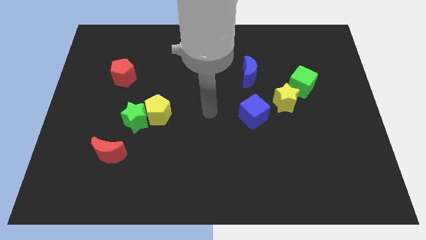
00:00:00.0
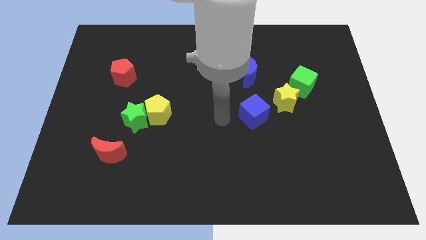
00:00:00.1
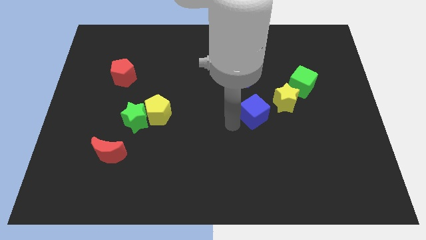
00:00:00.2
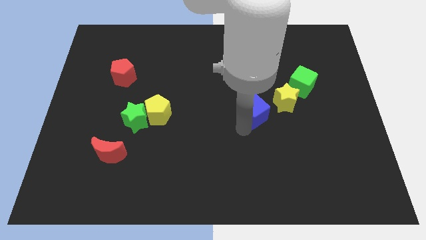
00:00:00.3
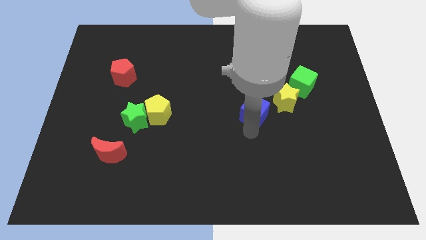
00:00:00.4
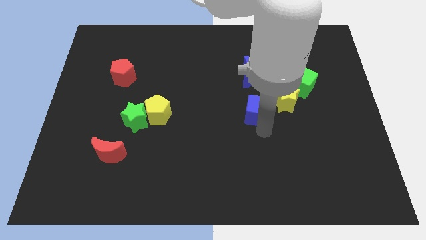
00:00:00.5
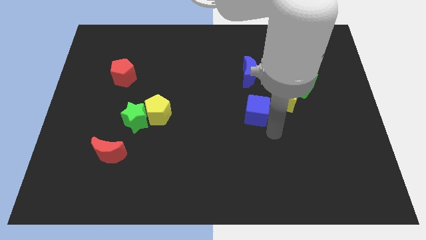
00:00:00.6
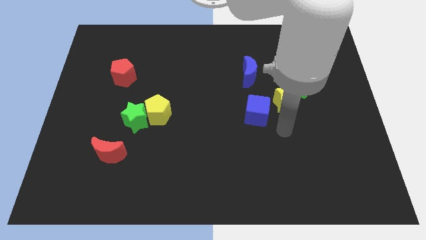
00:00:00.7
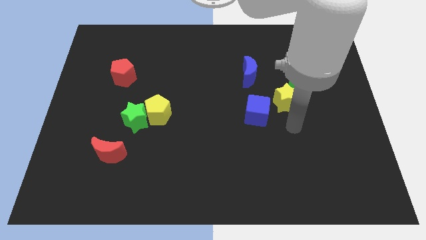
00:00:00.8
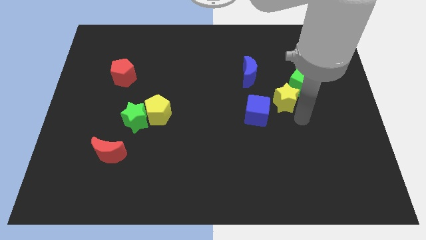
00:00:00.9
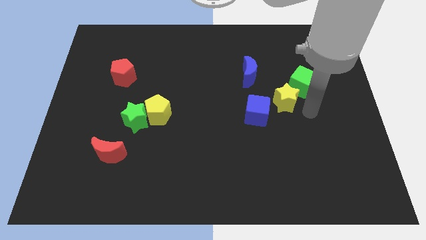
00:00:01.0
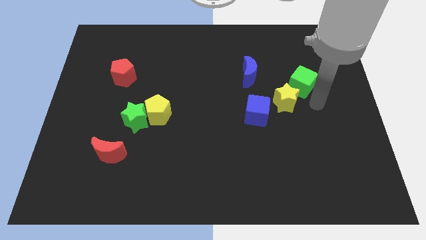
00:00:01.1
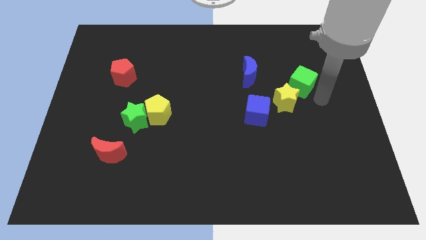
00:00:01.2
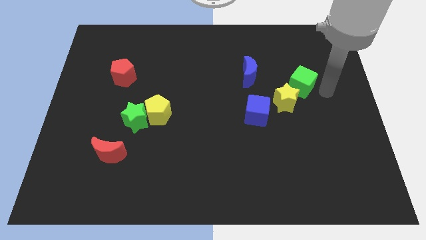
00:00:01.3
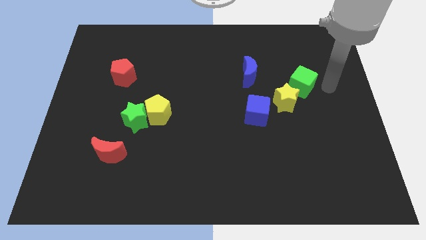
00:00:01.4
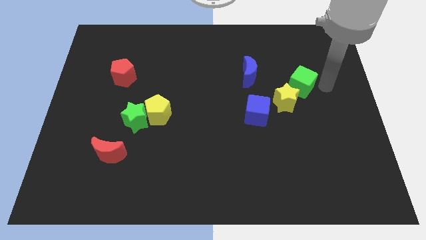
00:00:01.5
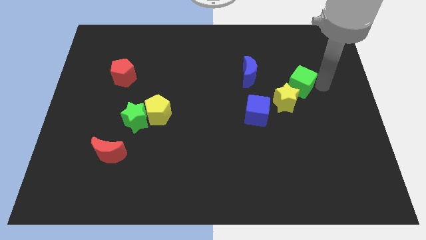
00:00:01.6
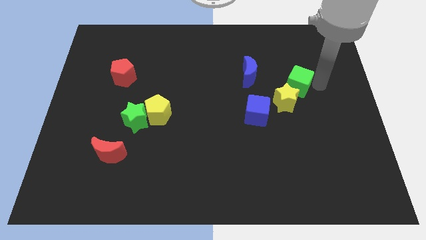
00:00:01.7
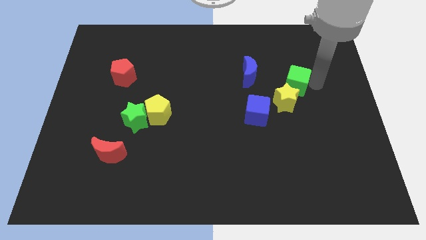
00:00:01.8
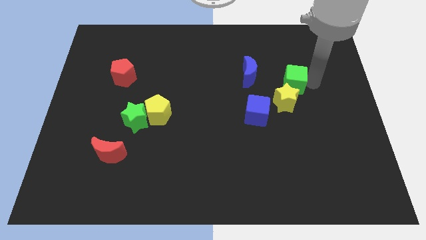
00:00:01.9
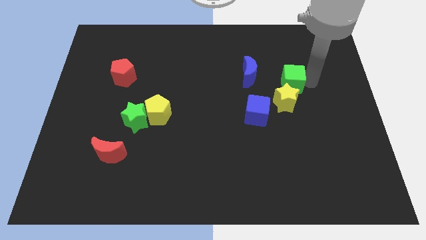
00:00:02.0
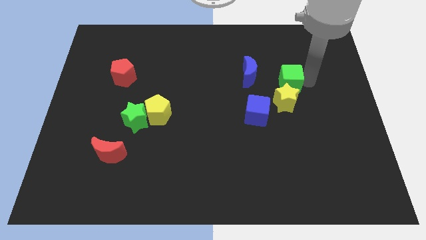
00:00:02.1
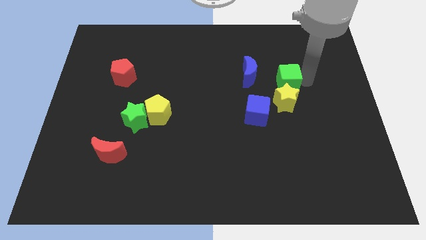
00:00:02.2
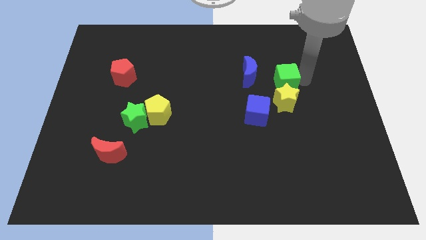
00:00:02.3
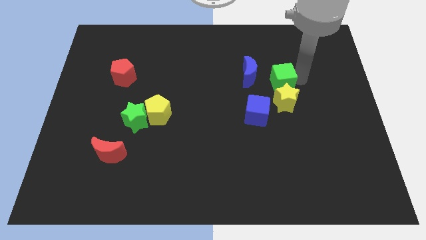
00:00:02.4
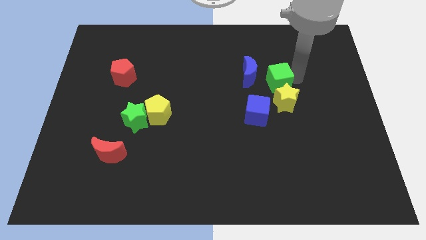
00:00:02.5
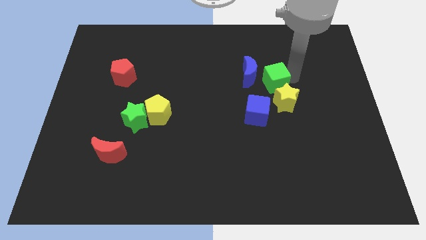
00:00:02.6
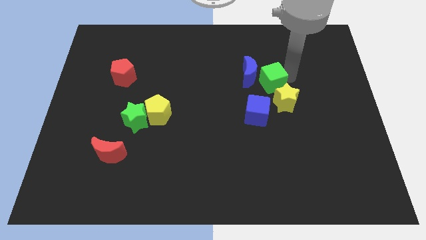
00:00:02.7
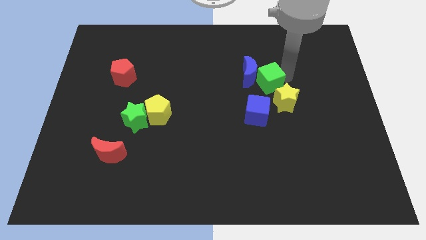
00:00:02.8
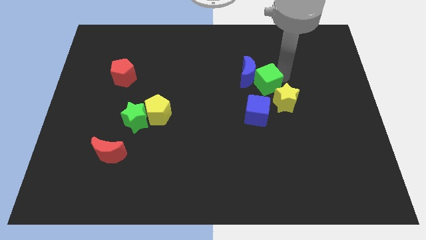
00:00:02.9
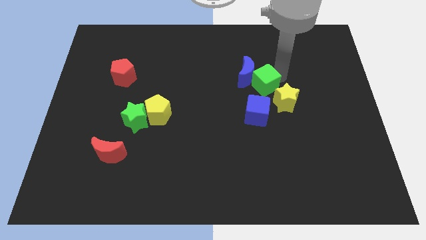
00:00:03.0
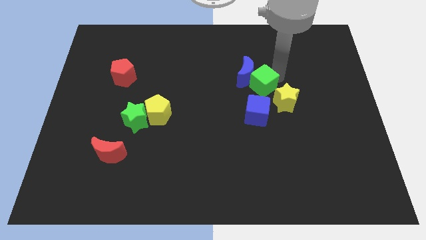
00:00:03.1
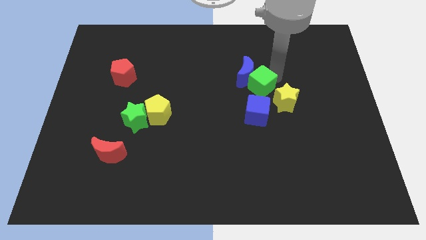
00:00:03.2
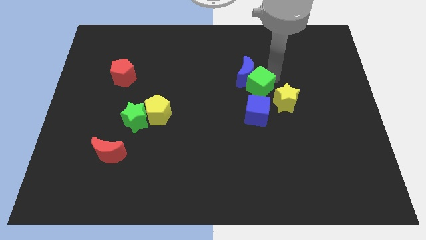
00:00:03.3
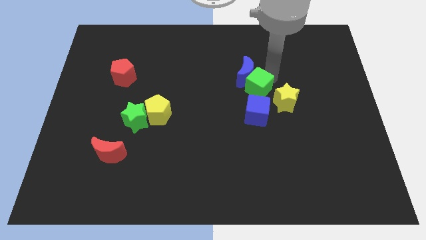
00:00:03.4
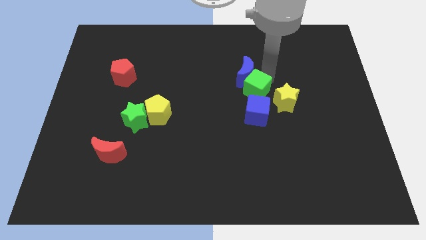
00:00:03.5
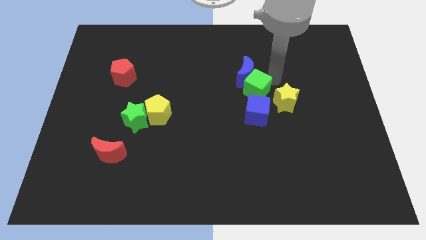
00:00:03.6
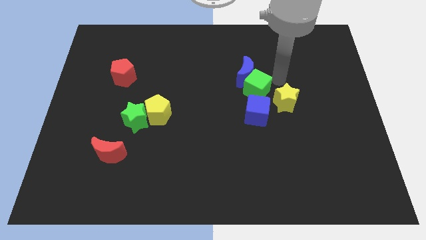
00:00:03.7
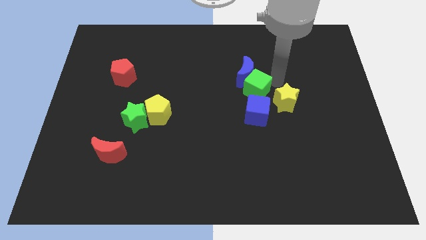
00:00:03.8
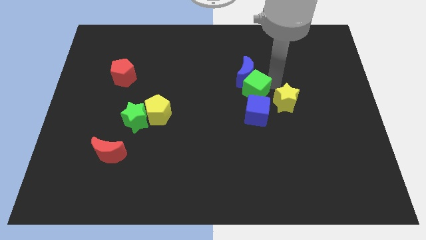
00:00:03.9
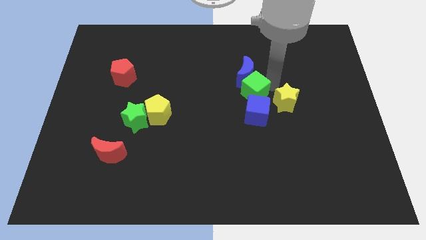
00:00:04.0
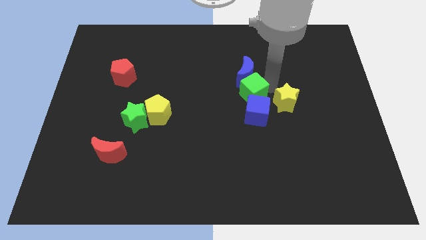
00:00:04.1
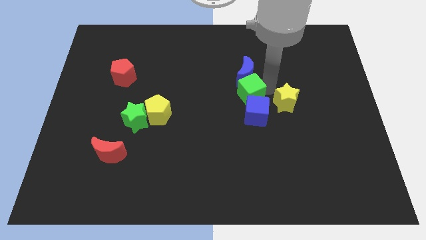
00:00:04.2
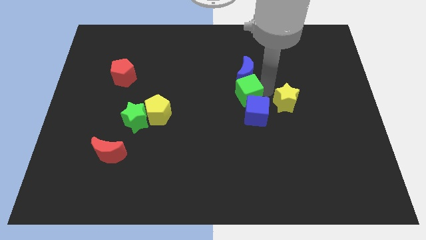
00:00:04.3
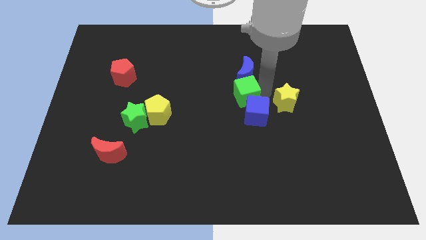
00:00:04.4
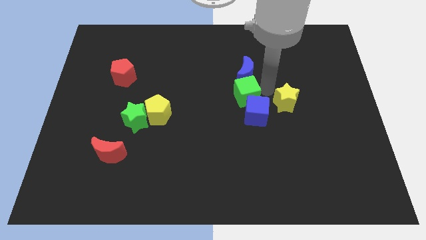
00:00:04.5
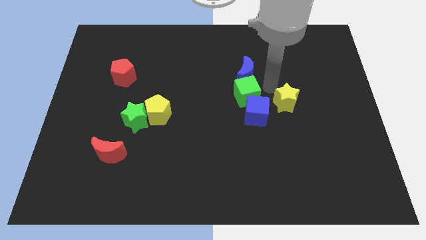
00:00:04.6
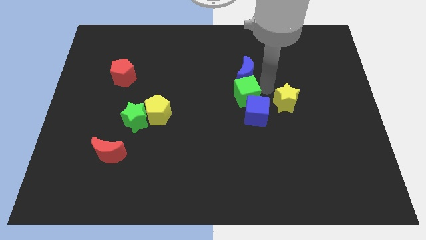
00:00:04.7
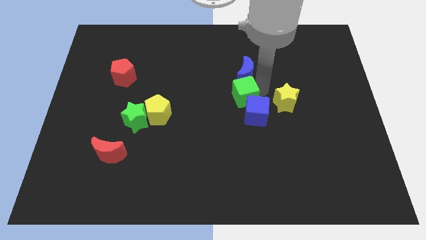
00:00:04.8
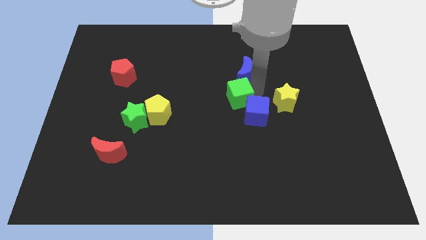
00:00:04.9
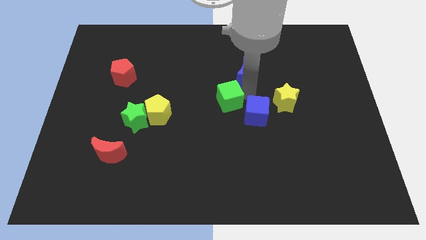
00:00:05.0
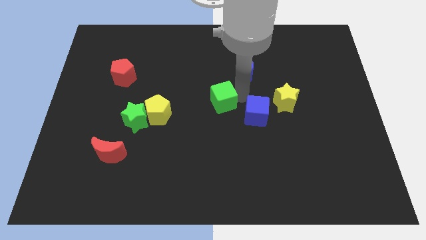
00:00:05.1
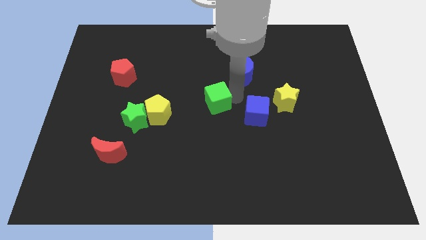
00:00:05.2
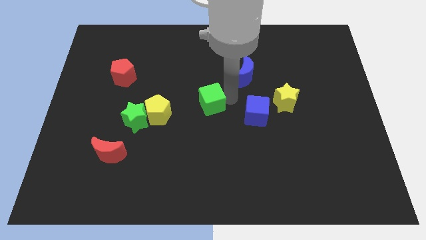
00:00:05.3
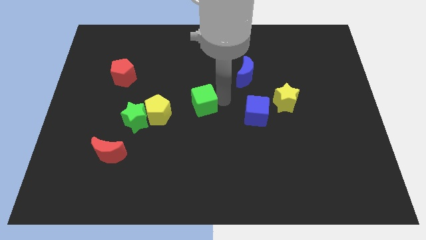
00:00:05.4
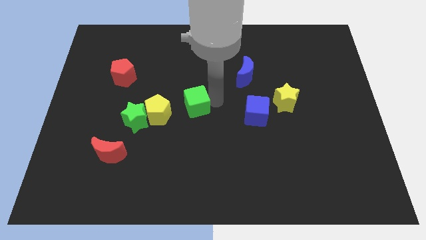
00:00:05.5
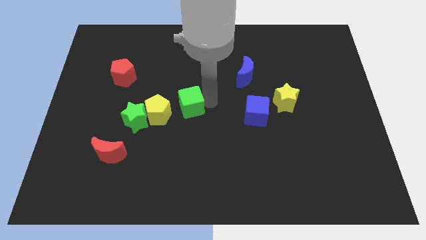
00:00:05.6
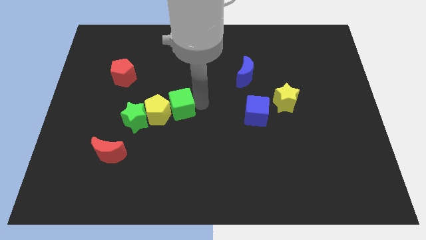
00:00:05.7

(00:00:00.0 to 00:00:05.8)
slide the green cube close to the yellow pentagon

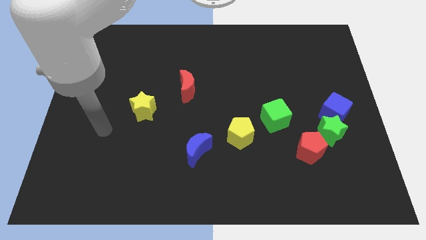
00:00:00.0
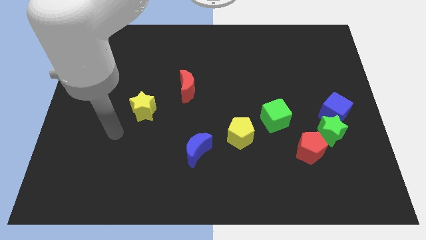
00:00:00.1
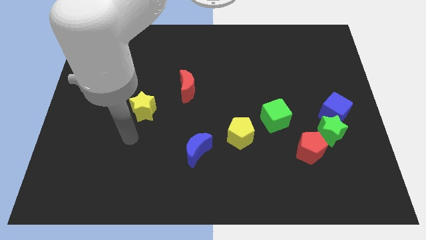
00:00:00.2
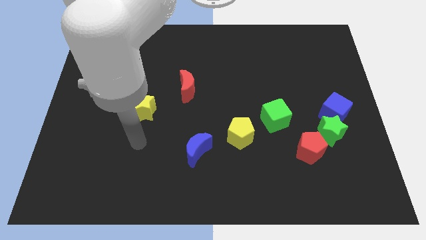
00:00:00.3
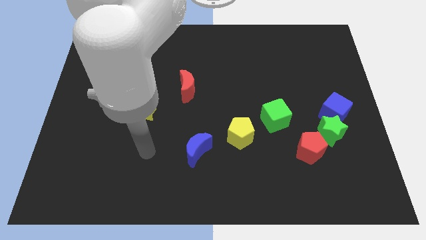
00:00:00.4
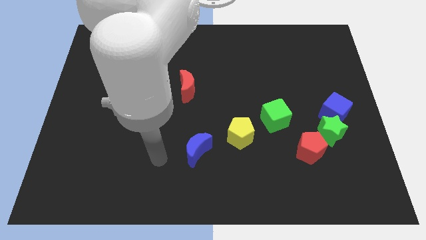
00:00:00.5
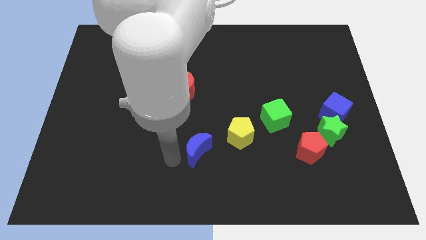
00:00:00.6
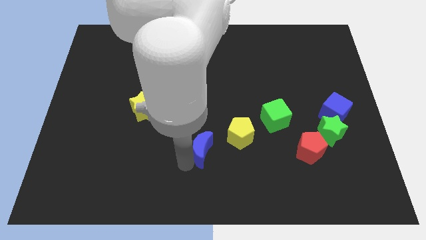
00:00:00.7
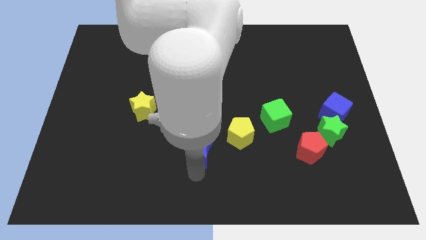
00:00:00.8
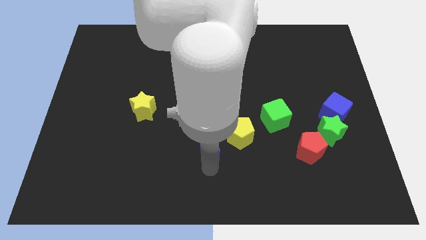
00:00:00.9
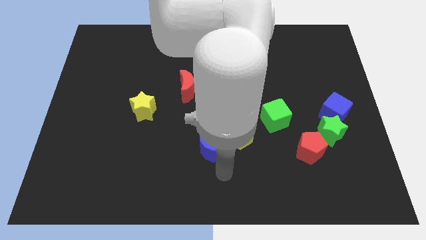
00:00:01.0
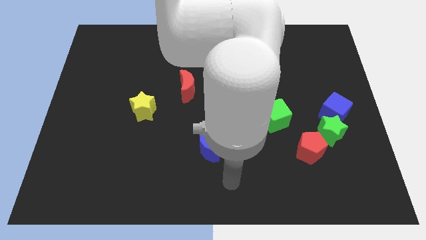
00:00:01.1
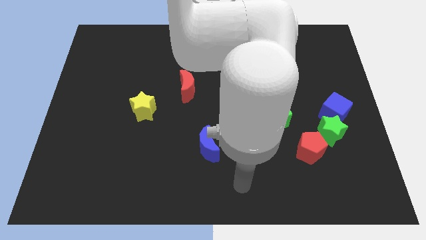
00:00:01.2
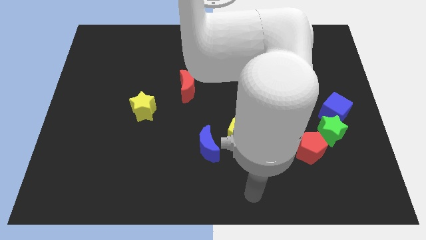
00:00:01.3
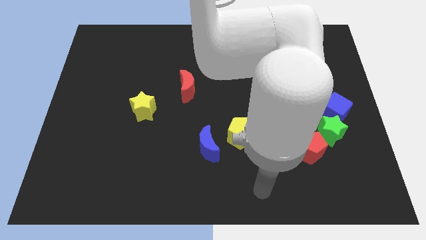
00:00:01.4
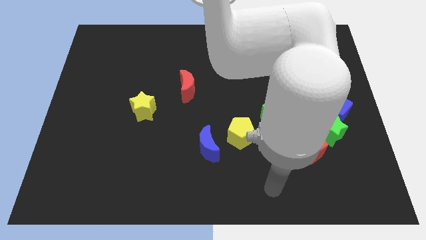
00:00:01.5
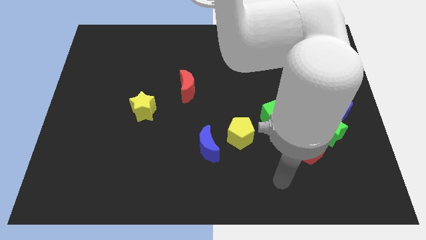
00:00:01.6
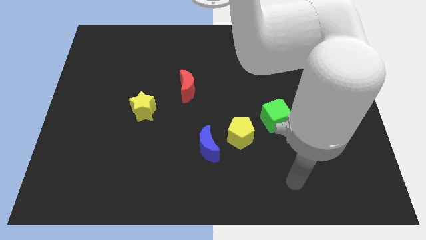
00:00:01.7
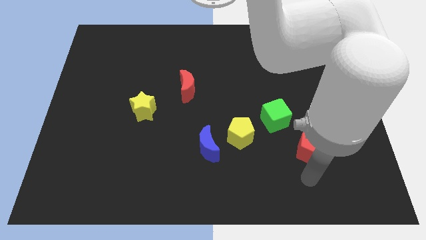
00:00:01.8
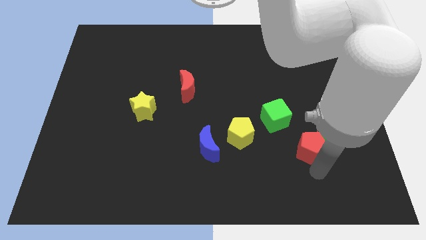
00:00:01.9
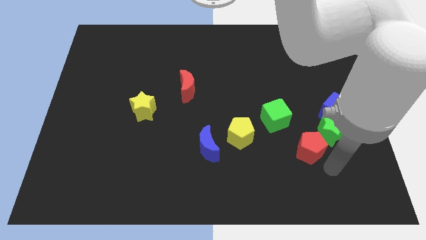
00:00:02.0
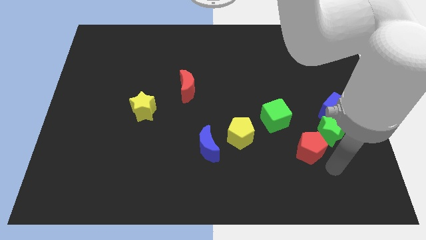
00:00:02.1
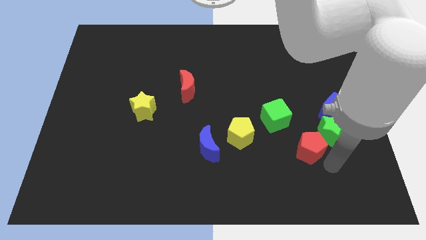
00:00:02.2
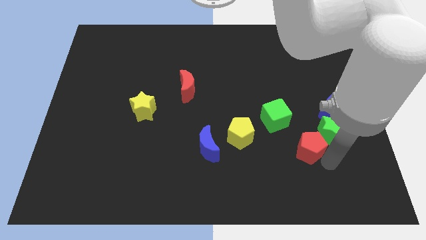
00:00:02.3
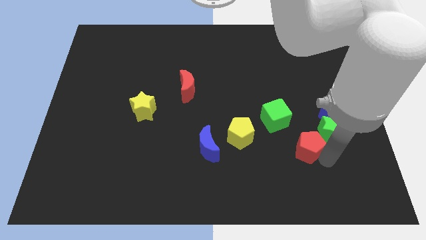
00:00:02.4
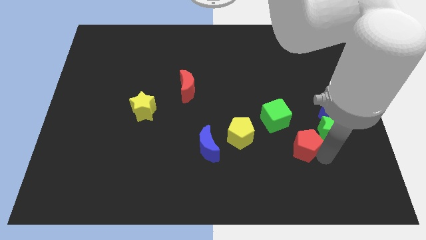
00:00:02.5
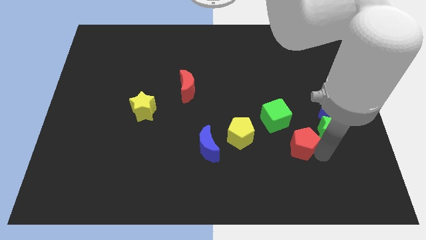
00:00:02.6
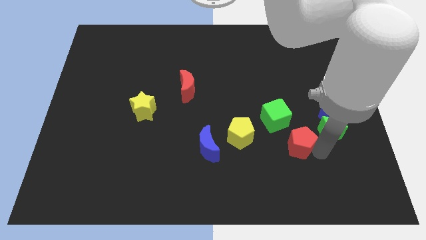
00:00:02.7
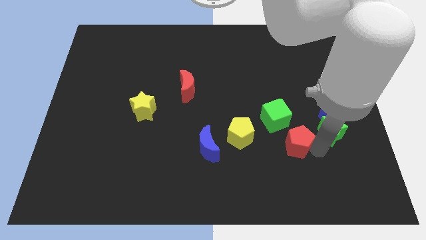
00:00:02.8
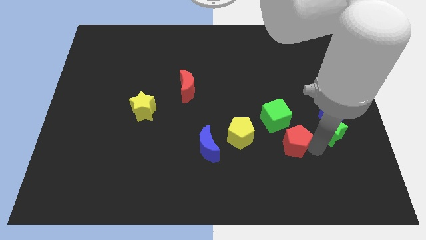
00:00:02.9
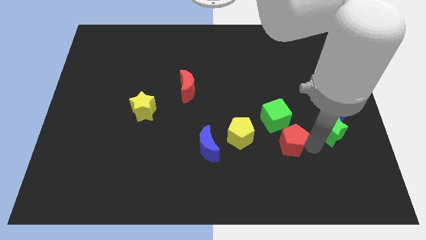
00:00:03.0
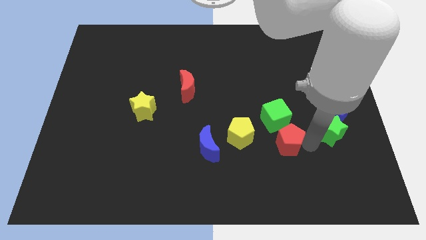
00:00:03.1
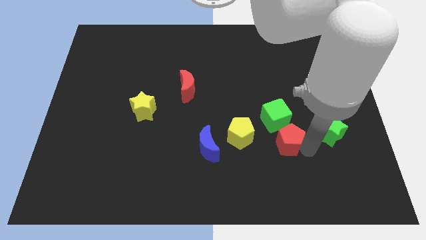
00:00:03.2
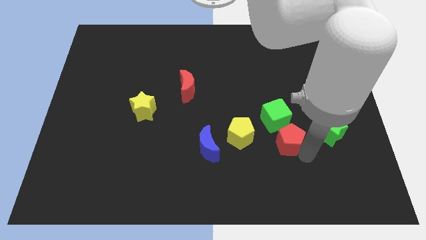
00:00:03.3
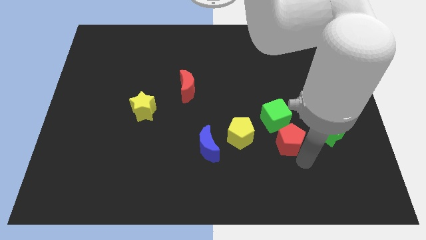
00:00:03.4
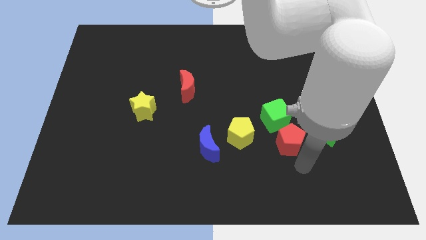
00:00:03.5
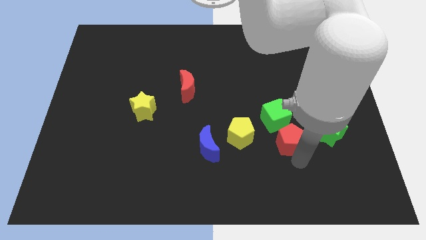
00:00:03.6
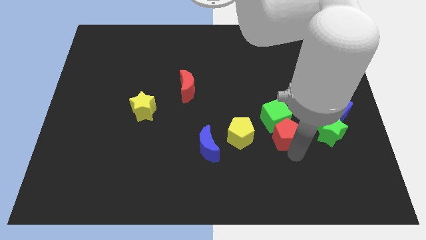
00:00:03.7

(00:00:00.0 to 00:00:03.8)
push the red pentagon to the green cube
